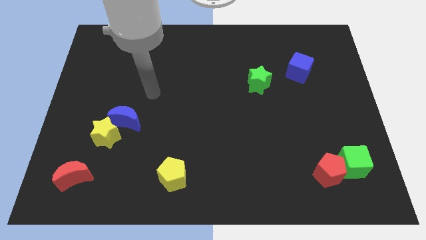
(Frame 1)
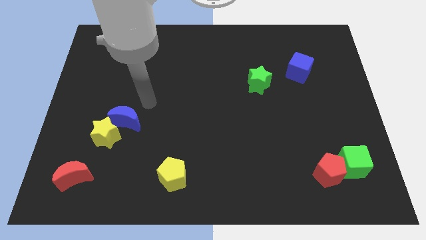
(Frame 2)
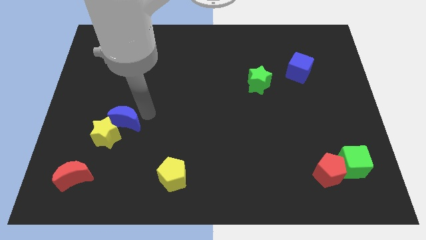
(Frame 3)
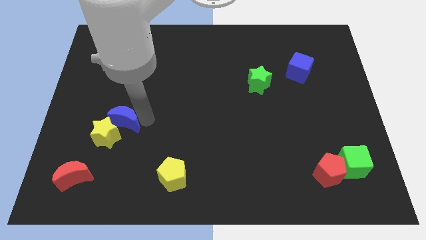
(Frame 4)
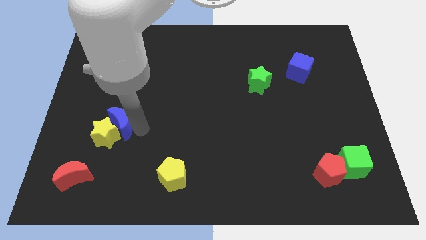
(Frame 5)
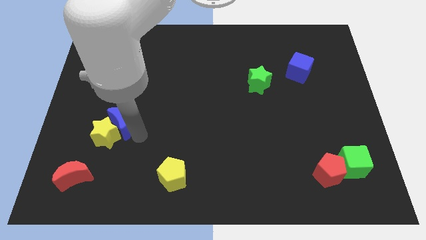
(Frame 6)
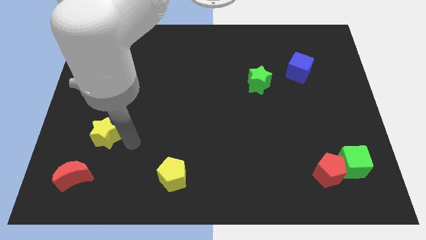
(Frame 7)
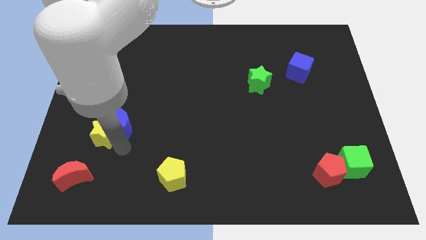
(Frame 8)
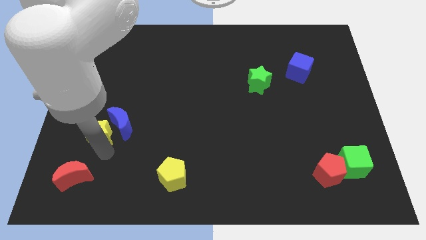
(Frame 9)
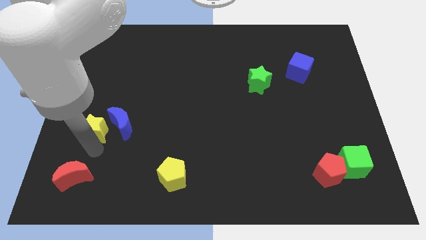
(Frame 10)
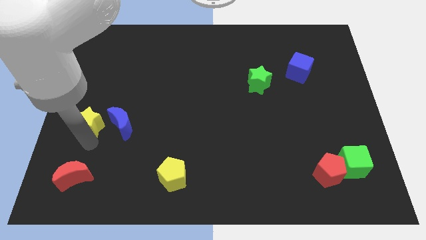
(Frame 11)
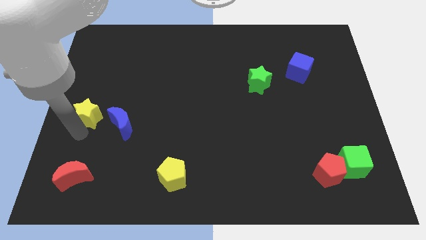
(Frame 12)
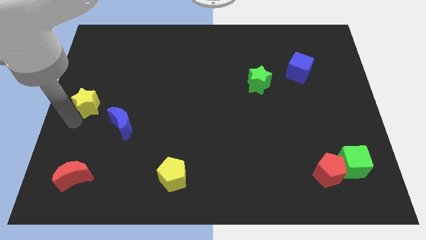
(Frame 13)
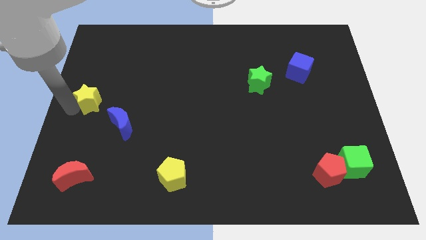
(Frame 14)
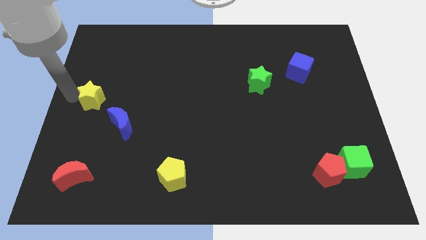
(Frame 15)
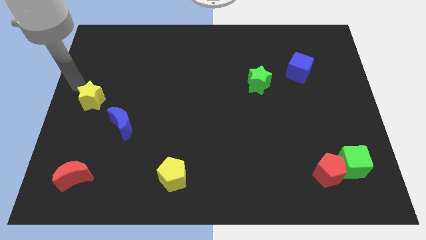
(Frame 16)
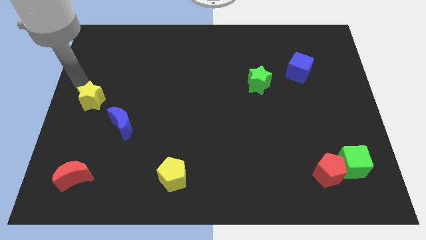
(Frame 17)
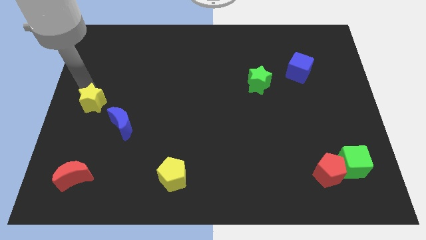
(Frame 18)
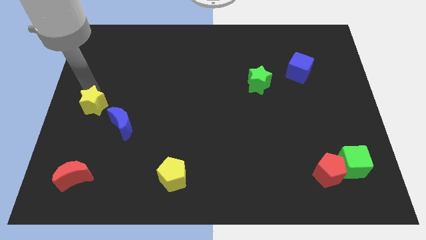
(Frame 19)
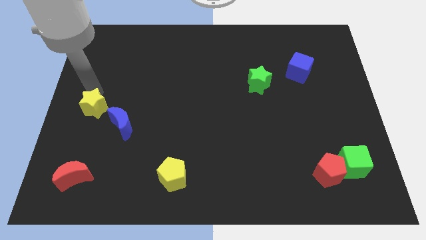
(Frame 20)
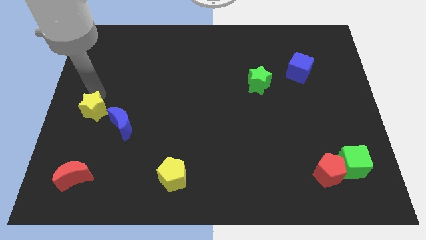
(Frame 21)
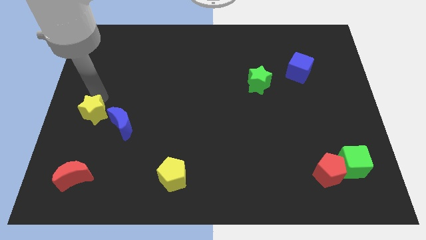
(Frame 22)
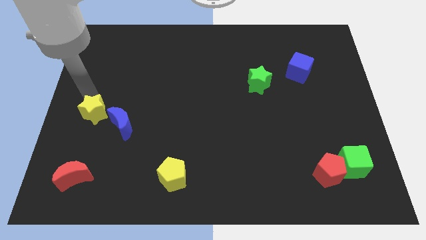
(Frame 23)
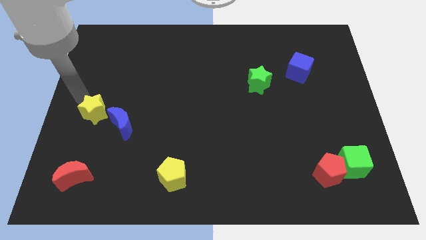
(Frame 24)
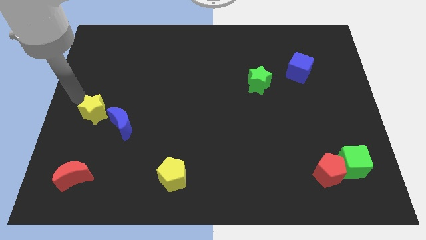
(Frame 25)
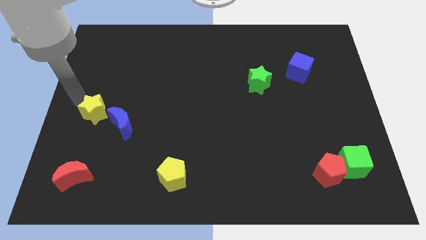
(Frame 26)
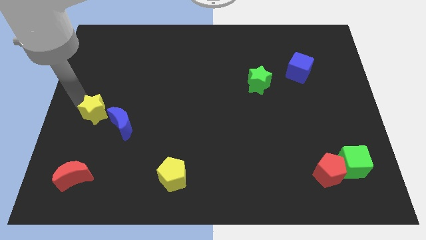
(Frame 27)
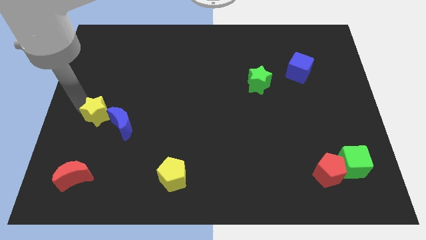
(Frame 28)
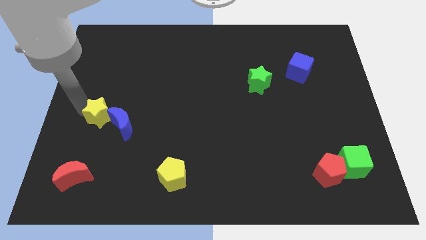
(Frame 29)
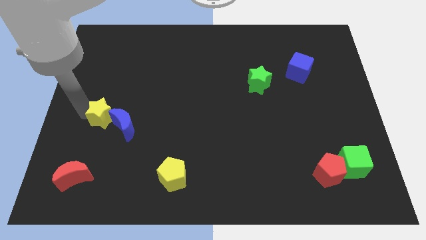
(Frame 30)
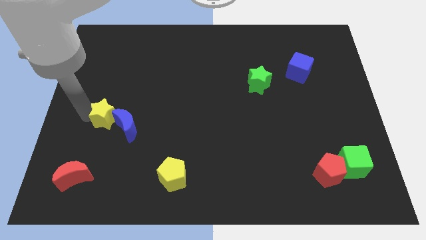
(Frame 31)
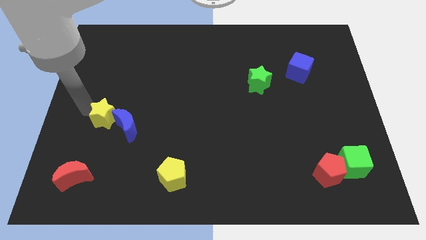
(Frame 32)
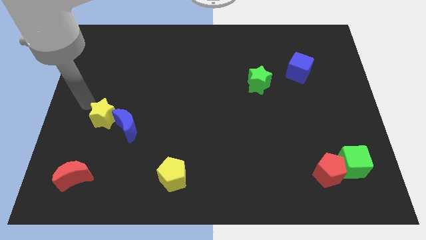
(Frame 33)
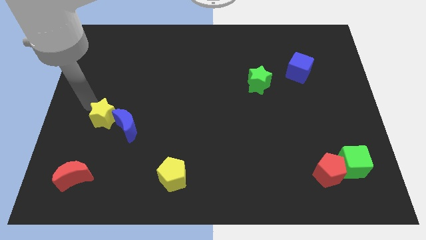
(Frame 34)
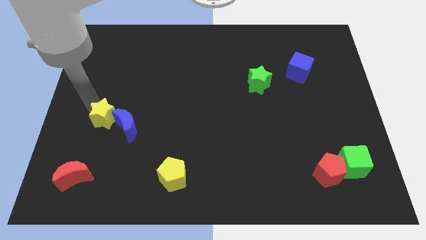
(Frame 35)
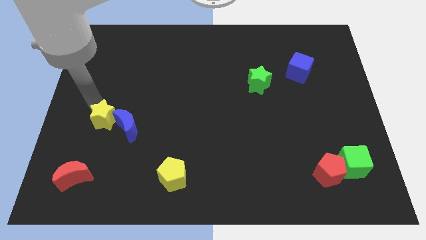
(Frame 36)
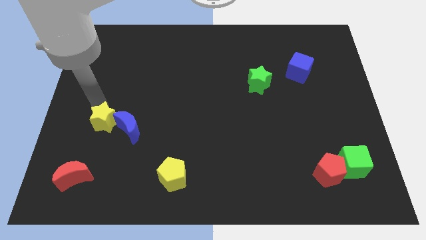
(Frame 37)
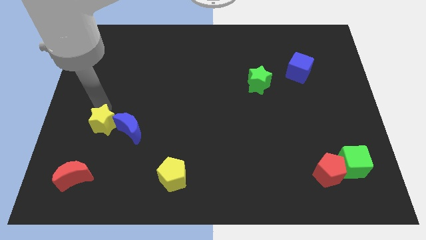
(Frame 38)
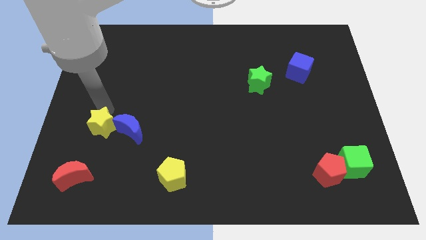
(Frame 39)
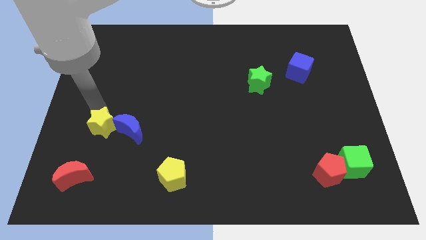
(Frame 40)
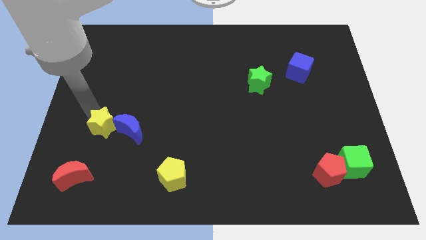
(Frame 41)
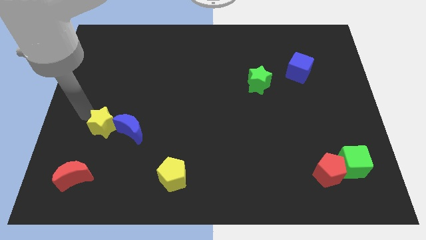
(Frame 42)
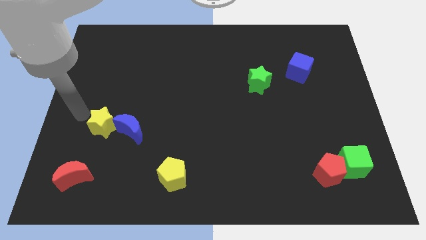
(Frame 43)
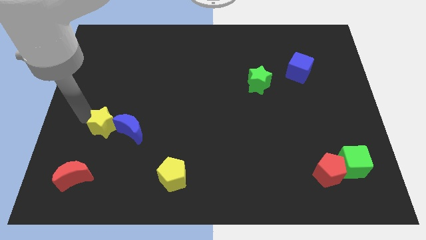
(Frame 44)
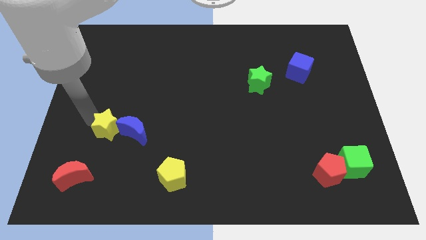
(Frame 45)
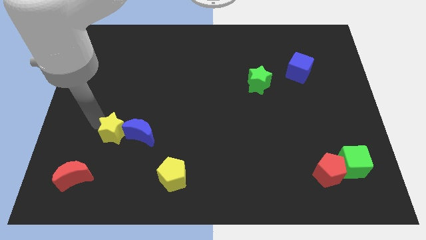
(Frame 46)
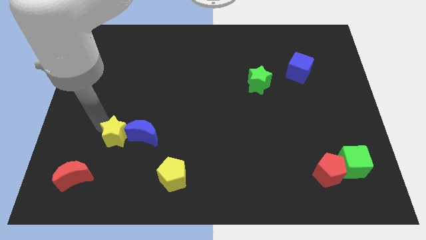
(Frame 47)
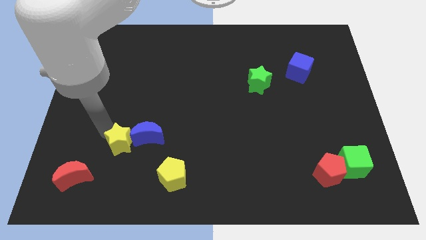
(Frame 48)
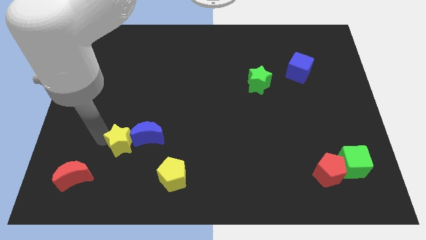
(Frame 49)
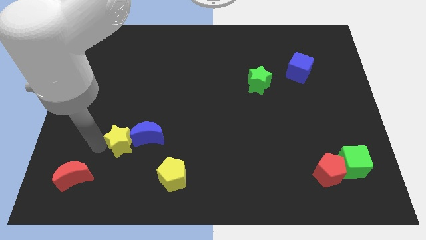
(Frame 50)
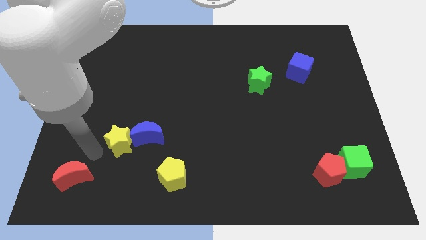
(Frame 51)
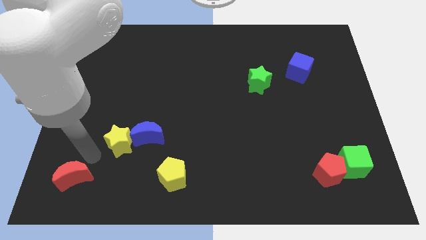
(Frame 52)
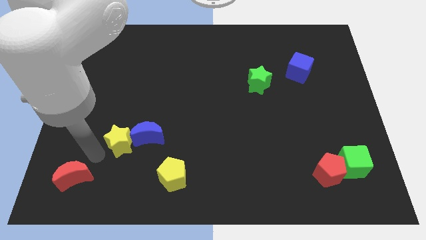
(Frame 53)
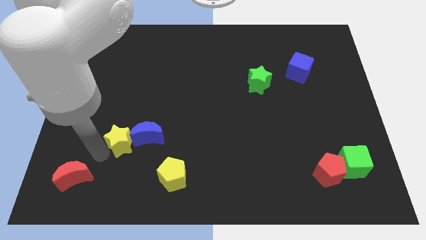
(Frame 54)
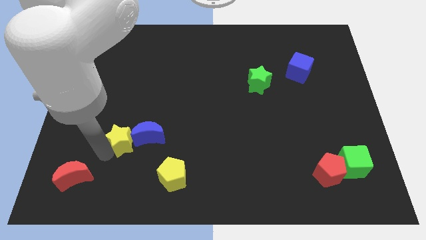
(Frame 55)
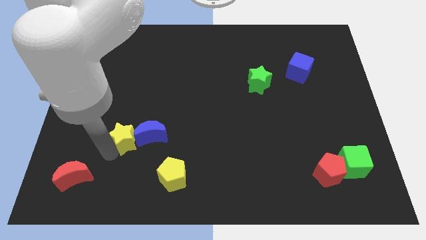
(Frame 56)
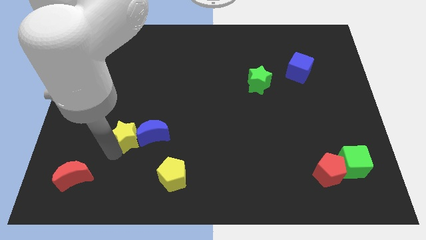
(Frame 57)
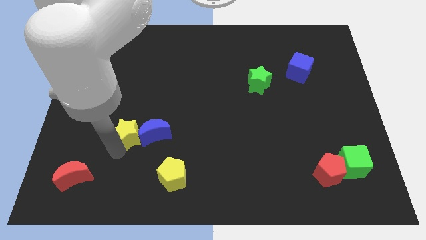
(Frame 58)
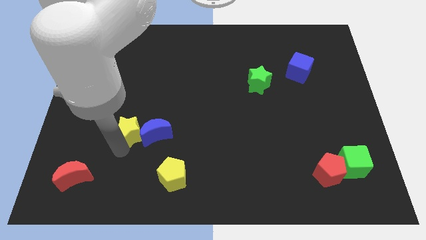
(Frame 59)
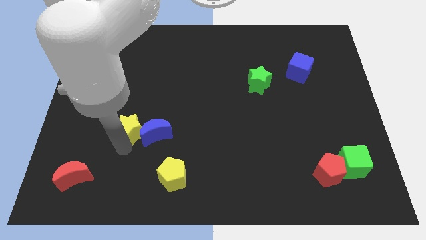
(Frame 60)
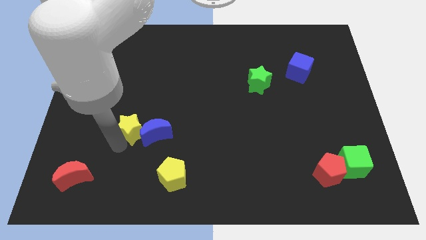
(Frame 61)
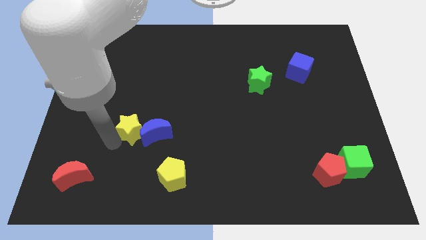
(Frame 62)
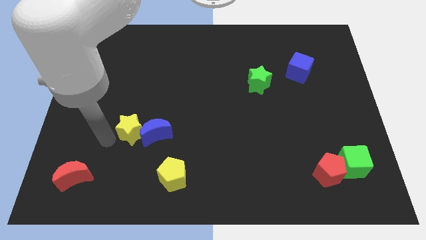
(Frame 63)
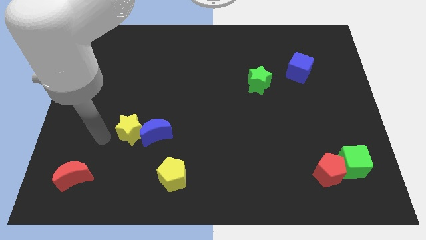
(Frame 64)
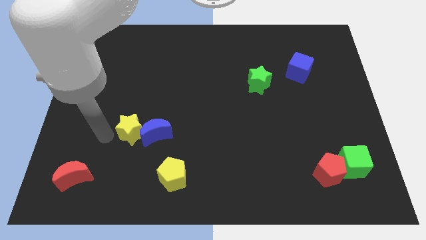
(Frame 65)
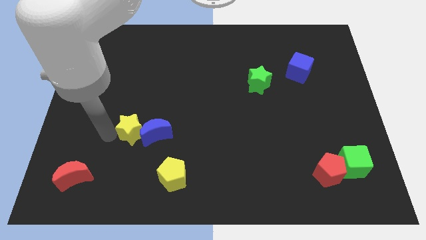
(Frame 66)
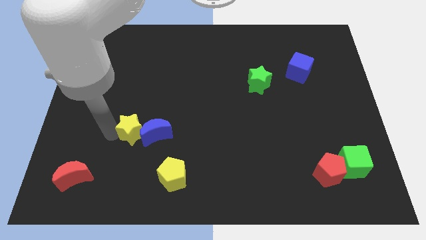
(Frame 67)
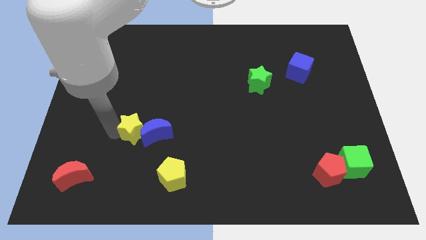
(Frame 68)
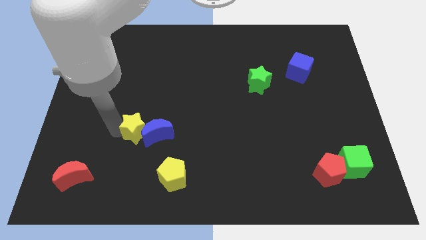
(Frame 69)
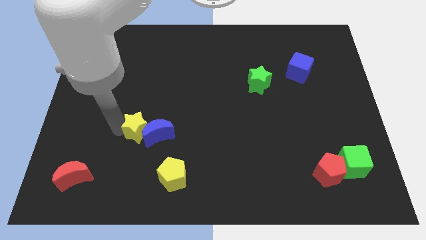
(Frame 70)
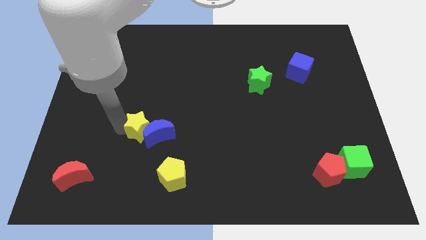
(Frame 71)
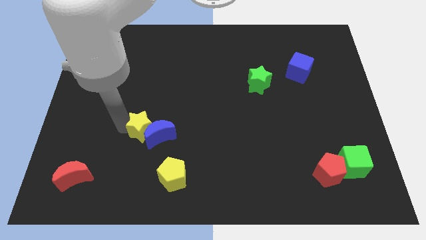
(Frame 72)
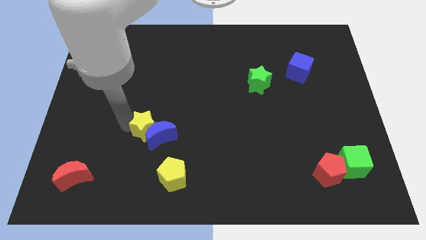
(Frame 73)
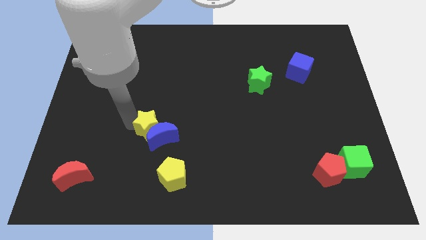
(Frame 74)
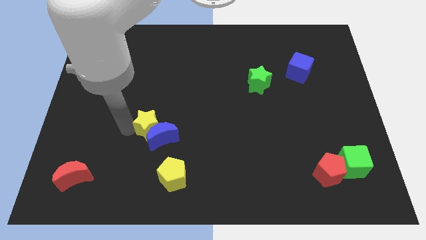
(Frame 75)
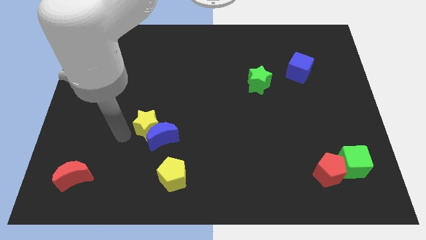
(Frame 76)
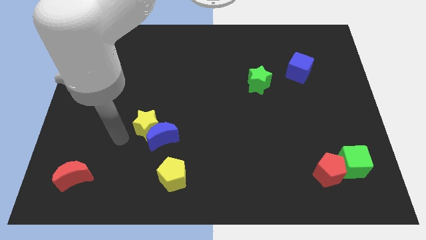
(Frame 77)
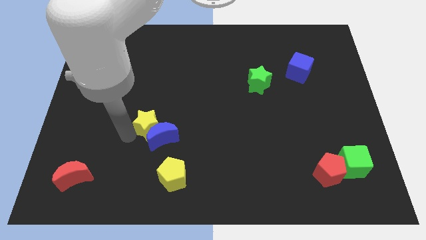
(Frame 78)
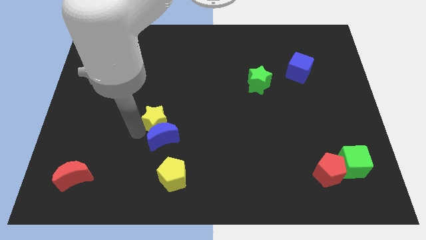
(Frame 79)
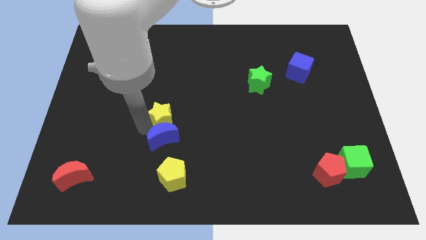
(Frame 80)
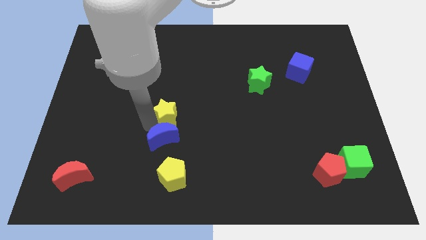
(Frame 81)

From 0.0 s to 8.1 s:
put the yellow star to the center of the board
